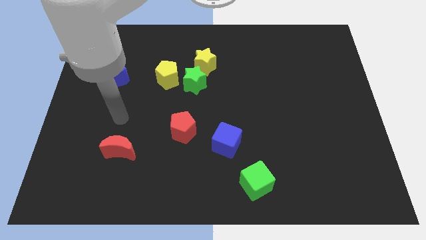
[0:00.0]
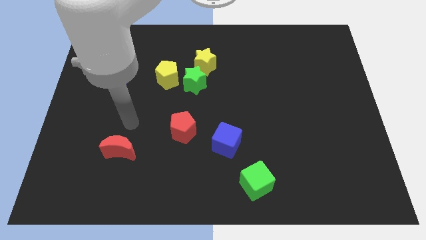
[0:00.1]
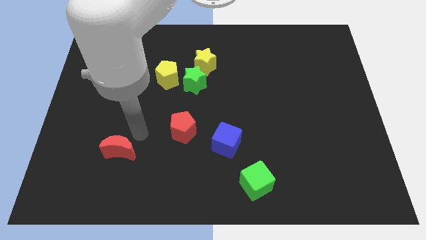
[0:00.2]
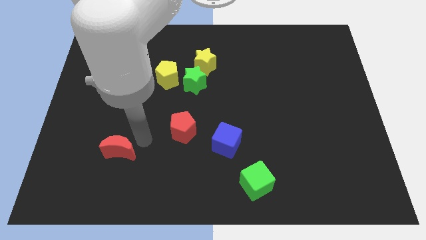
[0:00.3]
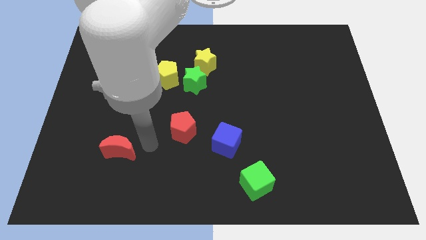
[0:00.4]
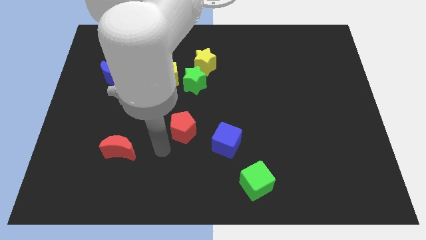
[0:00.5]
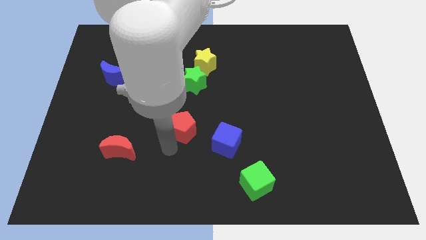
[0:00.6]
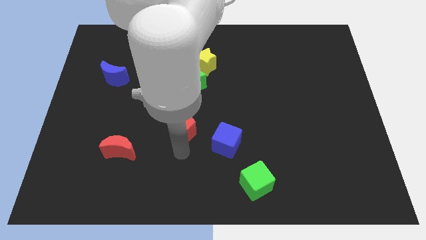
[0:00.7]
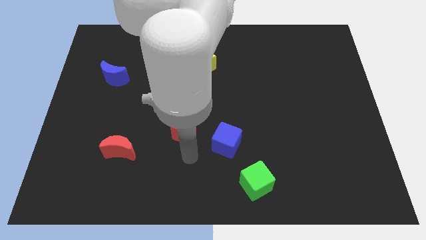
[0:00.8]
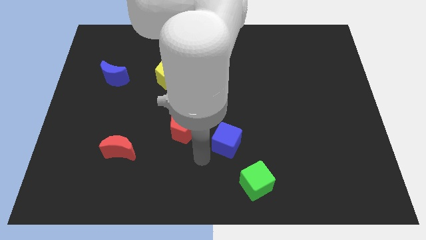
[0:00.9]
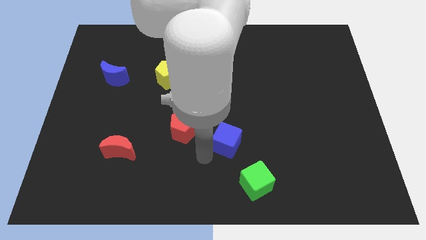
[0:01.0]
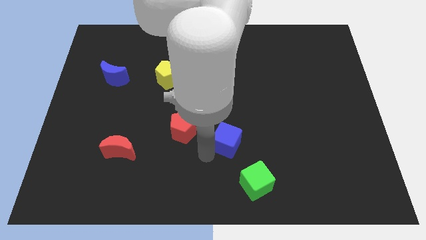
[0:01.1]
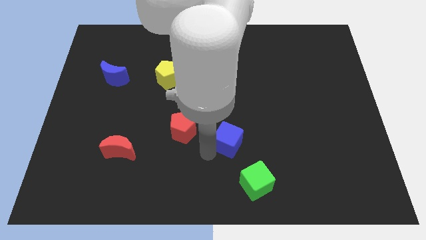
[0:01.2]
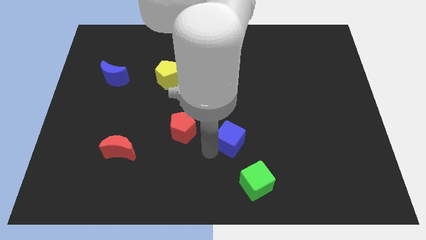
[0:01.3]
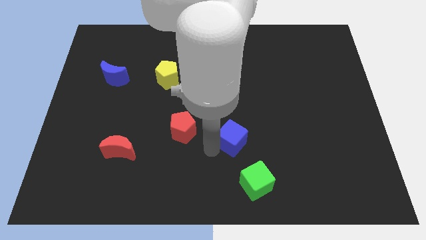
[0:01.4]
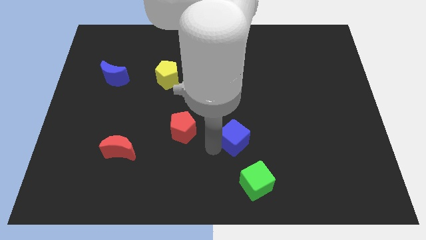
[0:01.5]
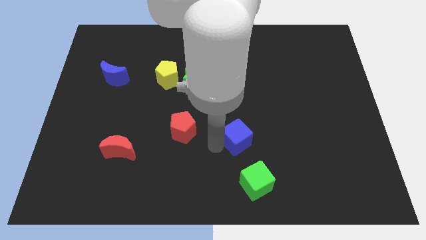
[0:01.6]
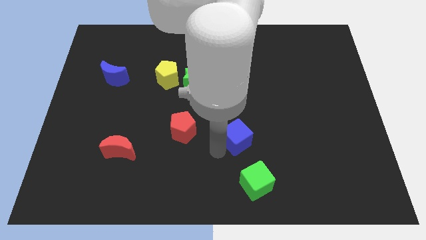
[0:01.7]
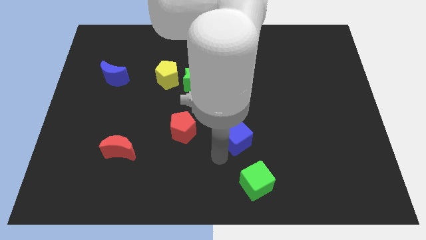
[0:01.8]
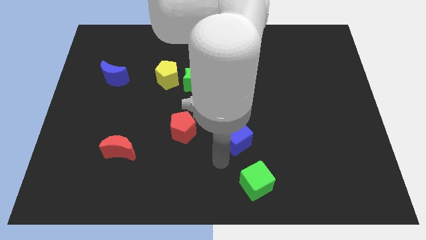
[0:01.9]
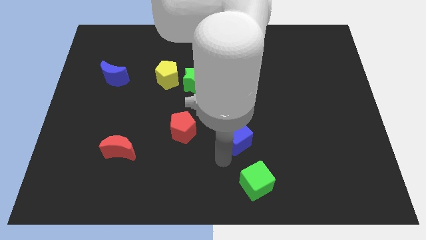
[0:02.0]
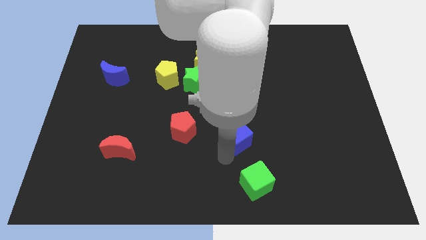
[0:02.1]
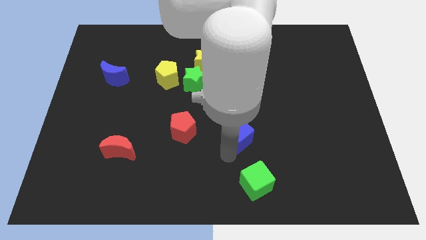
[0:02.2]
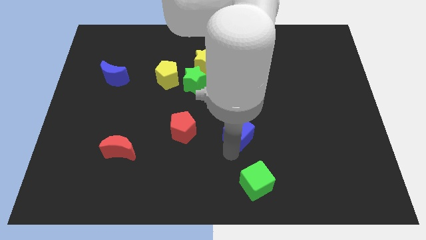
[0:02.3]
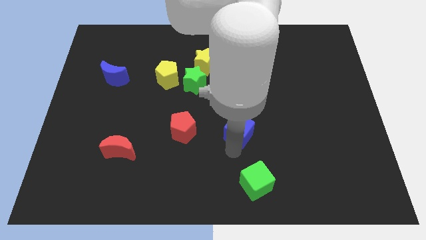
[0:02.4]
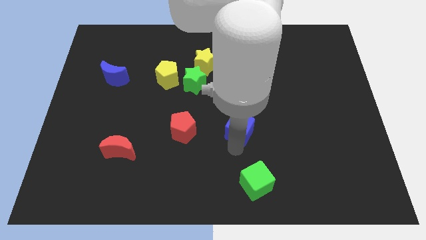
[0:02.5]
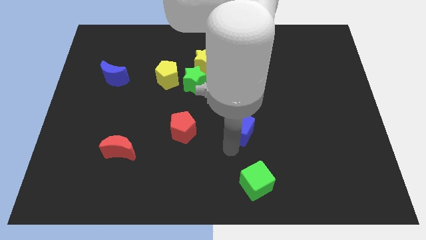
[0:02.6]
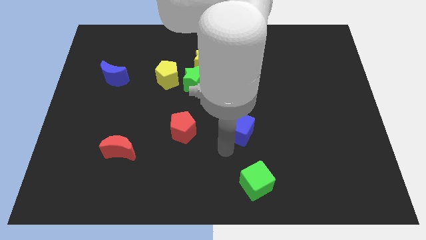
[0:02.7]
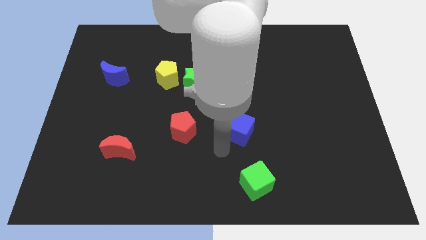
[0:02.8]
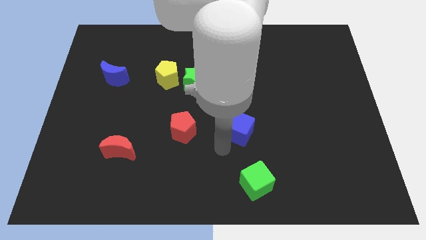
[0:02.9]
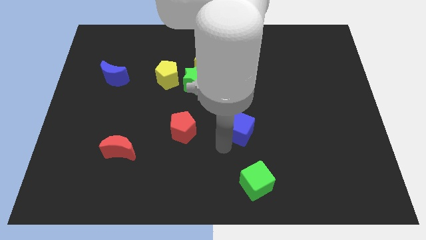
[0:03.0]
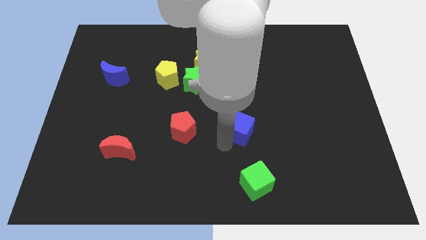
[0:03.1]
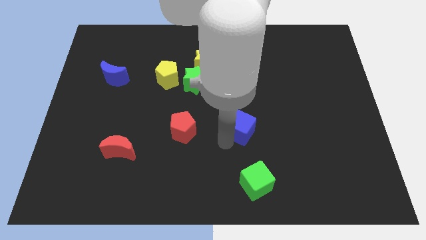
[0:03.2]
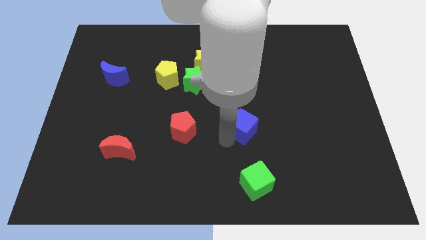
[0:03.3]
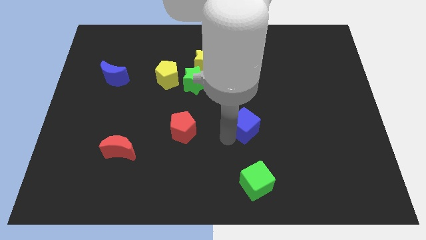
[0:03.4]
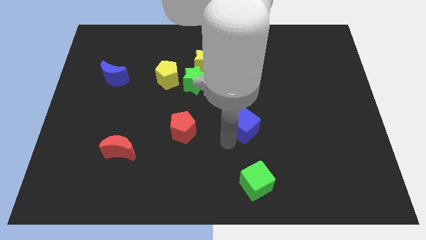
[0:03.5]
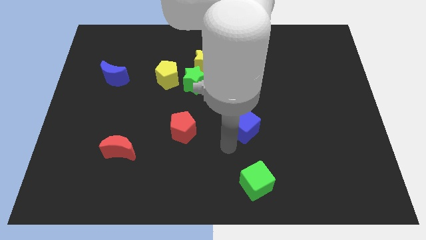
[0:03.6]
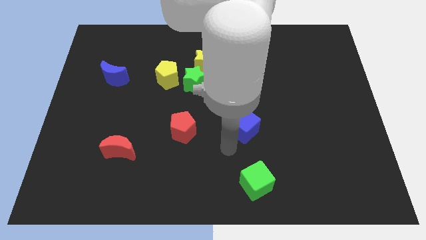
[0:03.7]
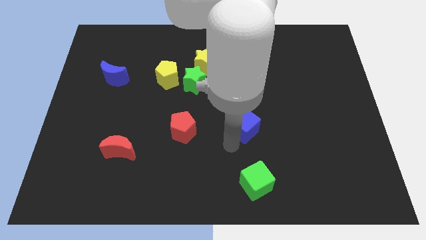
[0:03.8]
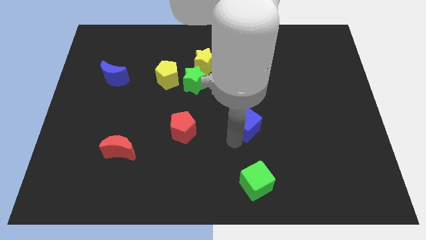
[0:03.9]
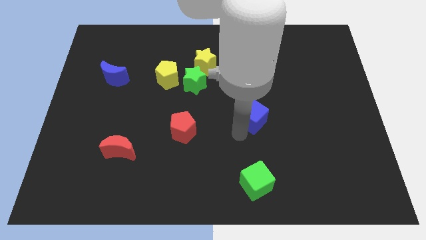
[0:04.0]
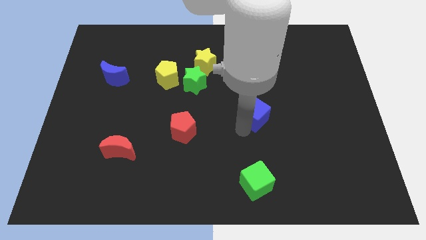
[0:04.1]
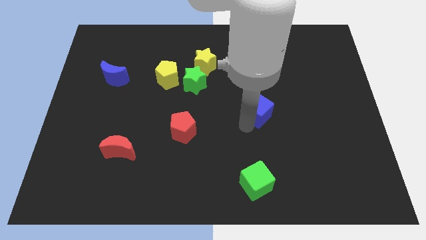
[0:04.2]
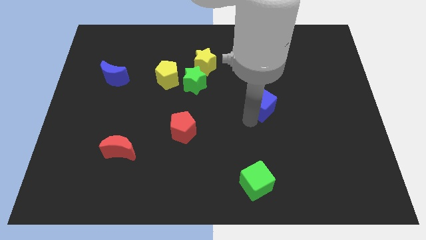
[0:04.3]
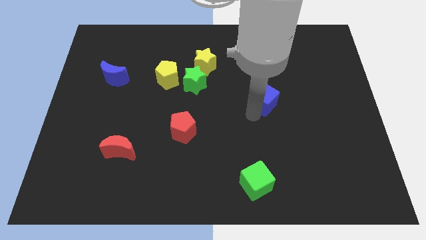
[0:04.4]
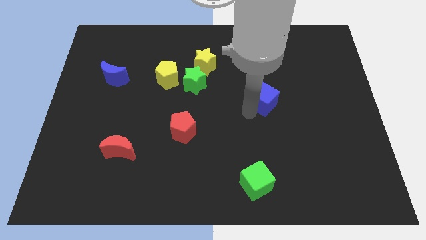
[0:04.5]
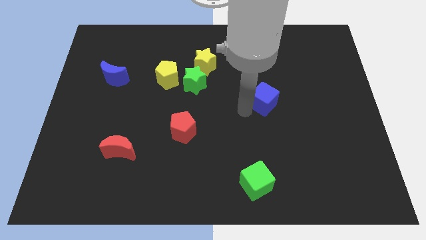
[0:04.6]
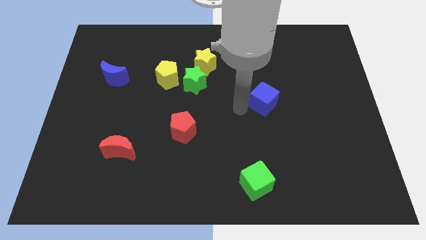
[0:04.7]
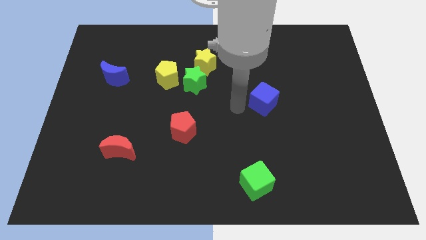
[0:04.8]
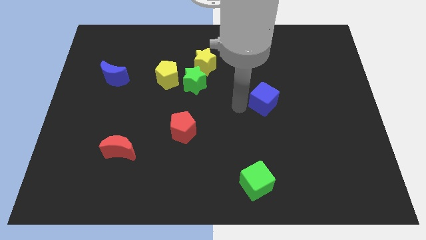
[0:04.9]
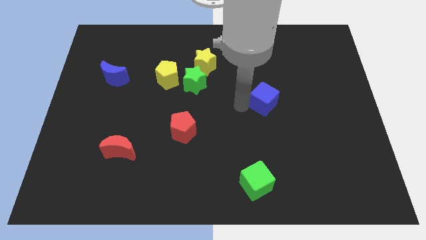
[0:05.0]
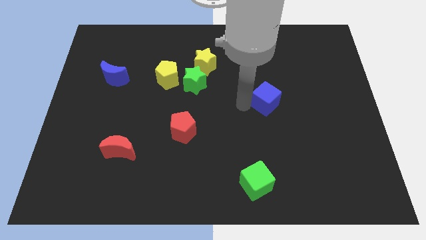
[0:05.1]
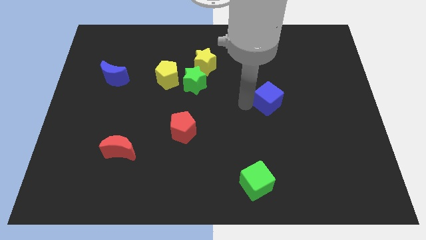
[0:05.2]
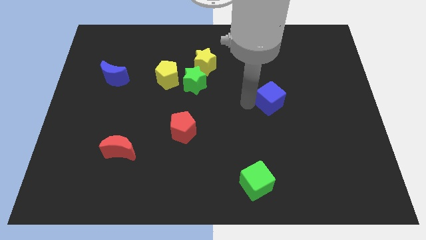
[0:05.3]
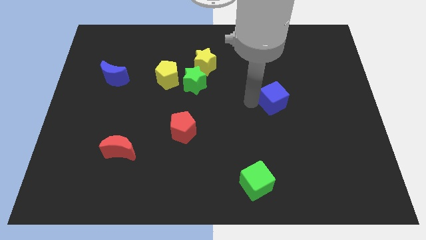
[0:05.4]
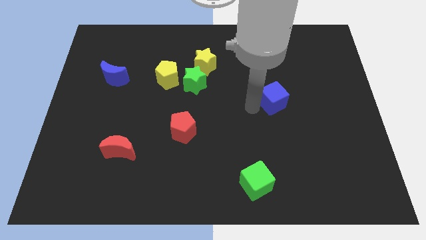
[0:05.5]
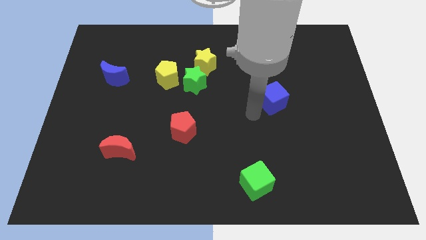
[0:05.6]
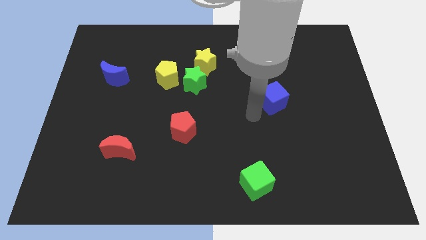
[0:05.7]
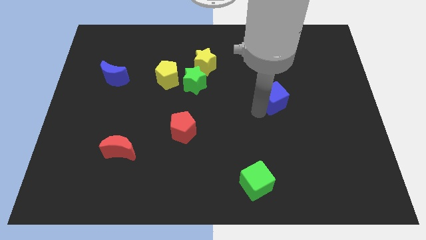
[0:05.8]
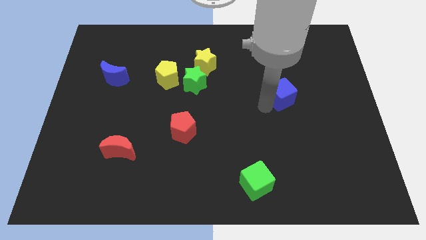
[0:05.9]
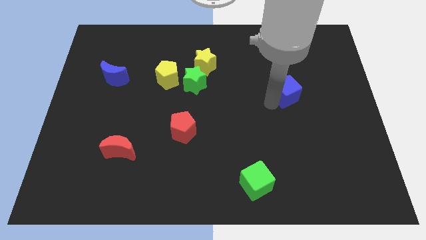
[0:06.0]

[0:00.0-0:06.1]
push the blue cube diagonally up and right

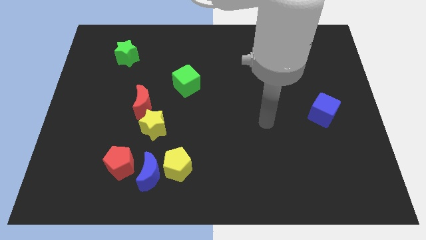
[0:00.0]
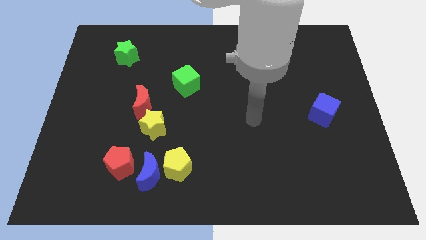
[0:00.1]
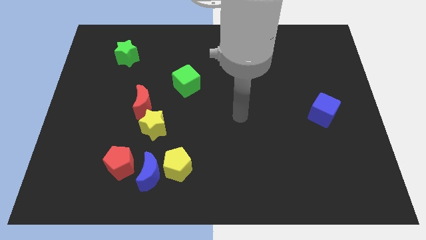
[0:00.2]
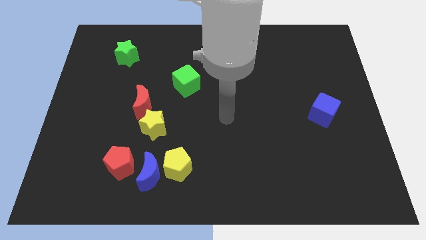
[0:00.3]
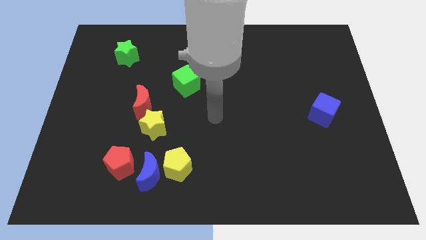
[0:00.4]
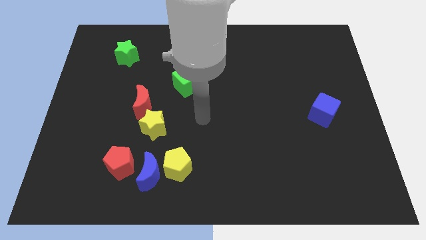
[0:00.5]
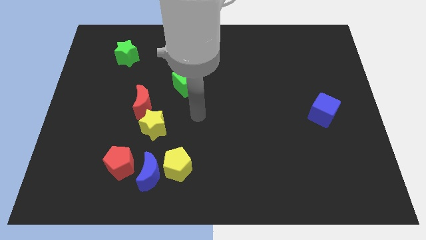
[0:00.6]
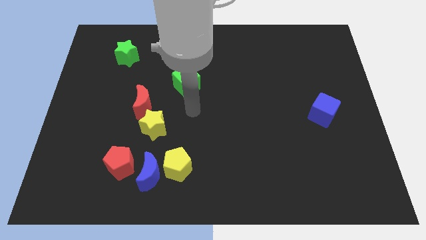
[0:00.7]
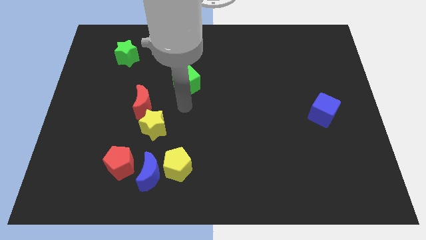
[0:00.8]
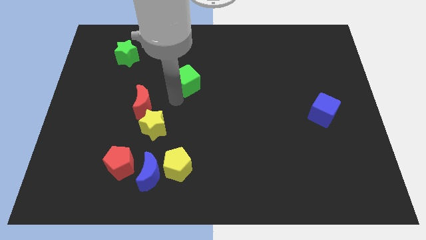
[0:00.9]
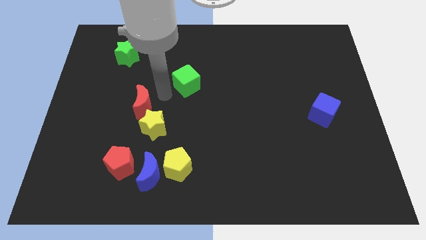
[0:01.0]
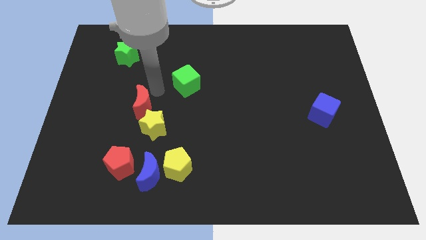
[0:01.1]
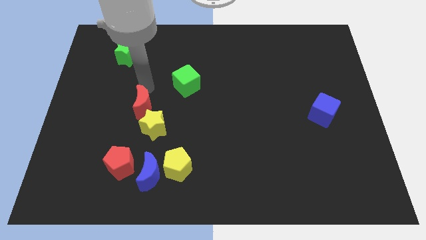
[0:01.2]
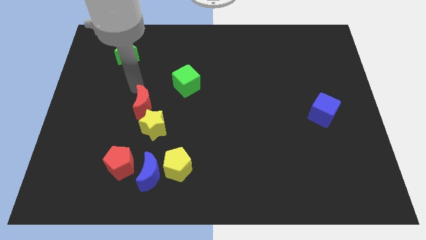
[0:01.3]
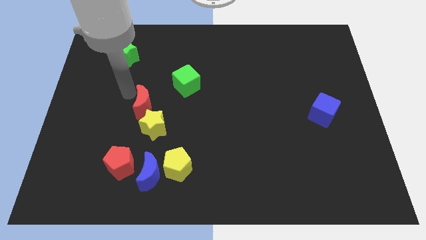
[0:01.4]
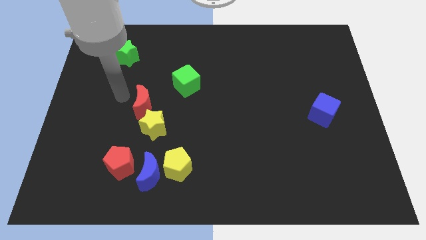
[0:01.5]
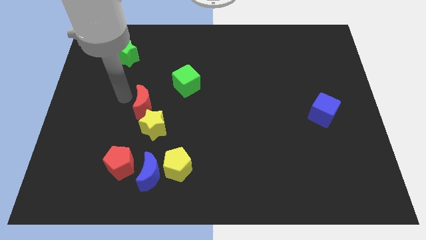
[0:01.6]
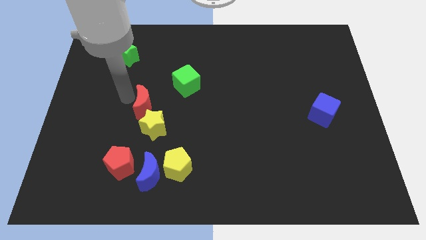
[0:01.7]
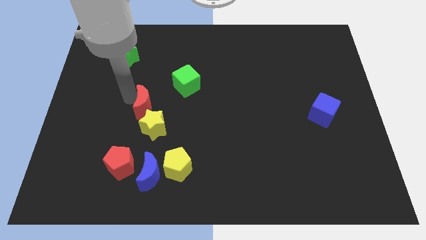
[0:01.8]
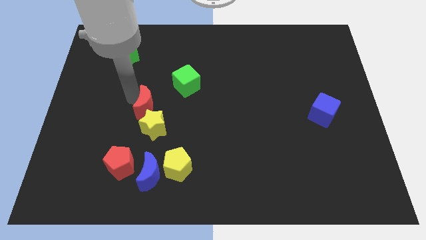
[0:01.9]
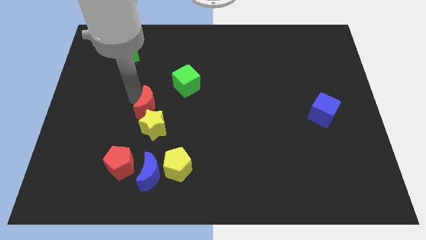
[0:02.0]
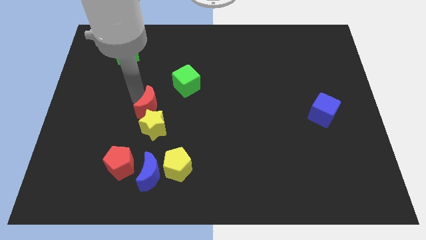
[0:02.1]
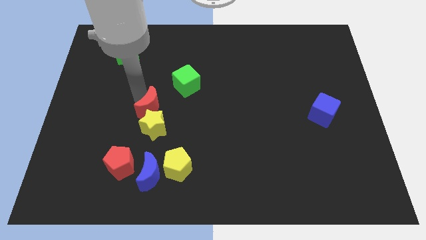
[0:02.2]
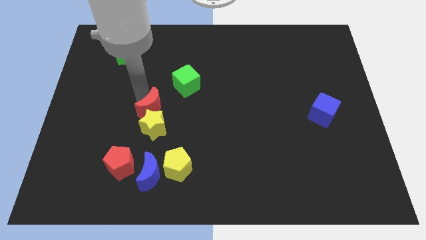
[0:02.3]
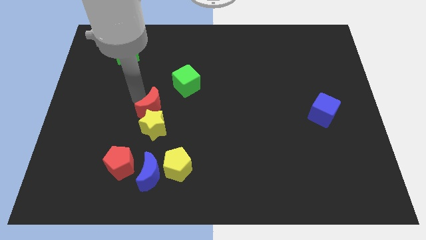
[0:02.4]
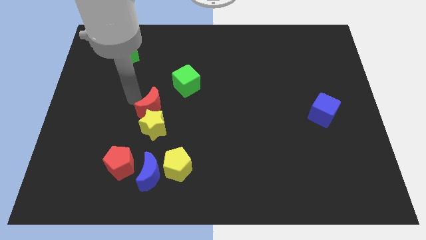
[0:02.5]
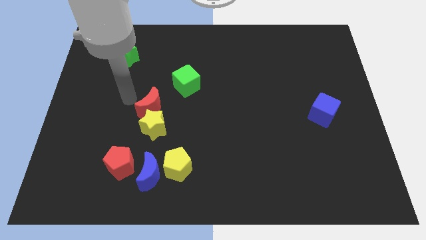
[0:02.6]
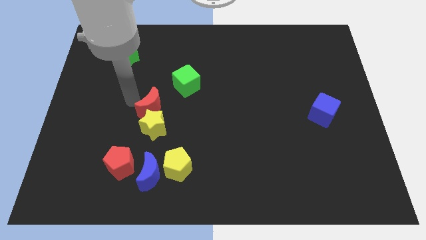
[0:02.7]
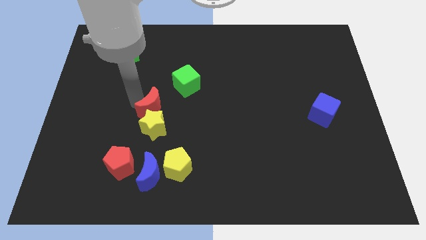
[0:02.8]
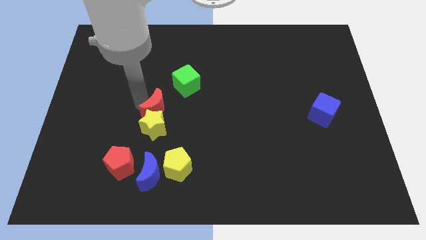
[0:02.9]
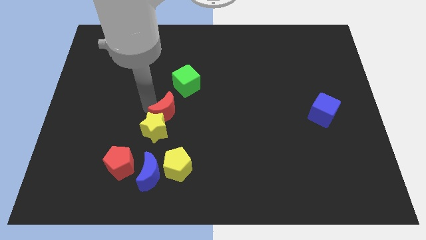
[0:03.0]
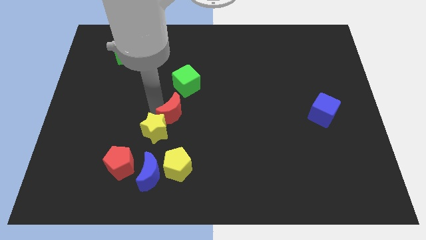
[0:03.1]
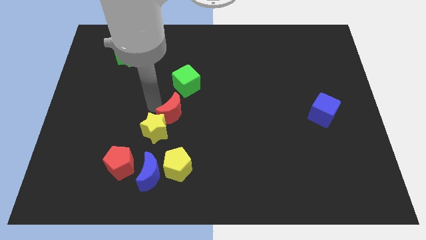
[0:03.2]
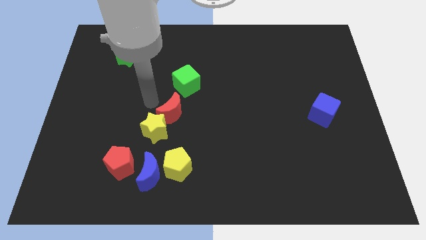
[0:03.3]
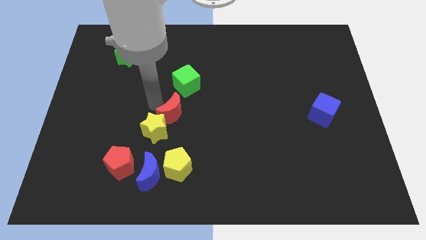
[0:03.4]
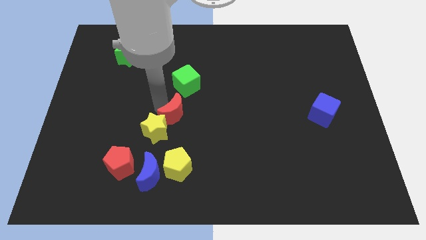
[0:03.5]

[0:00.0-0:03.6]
move the red moon diagonally down and to the right a bit
